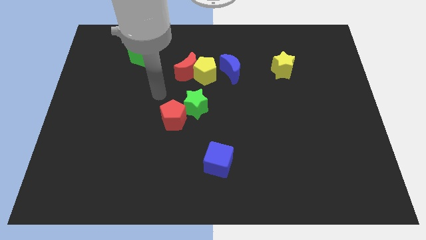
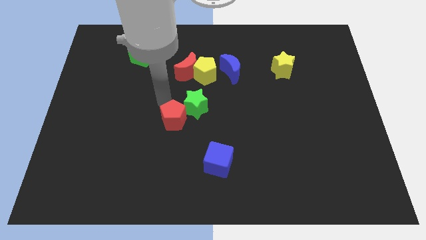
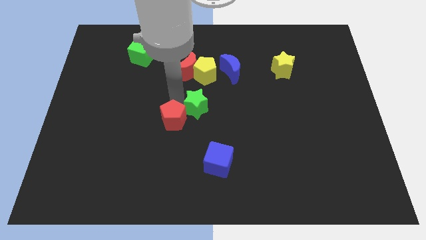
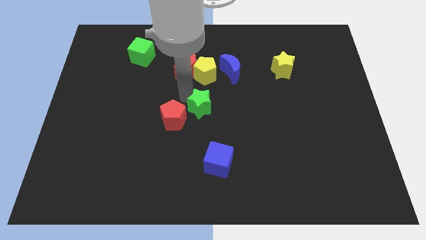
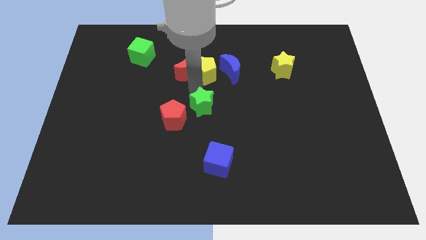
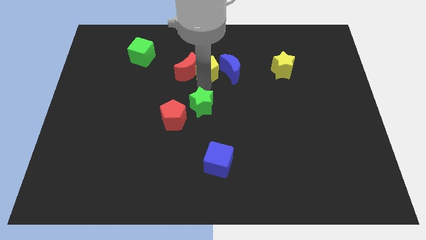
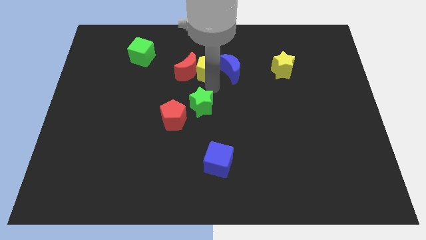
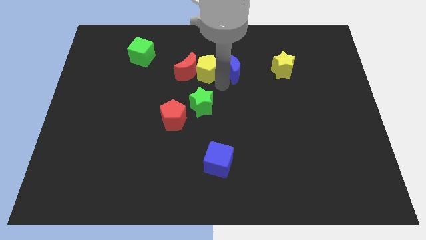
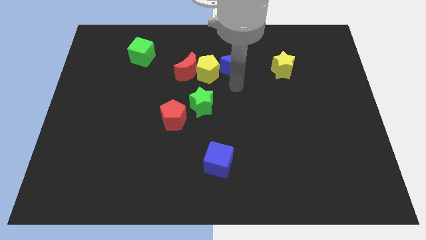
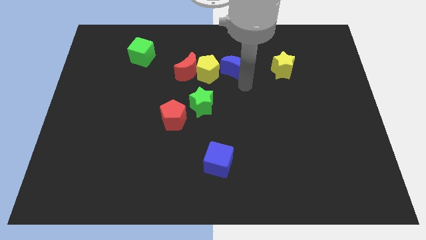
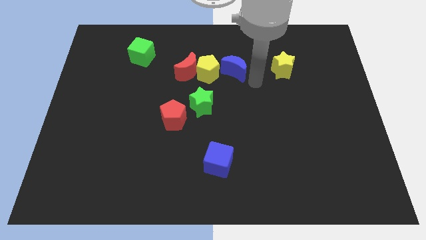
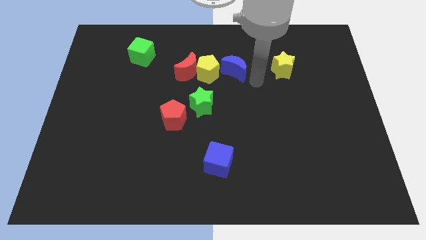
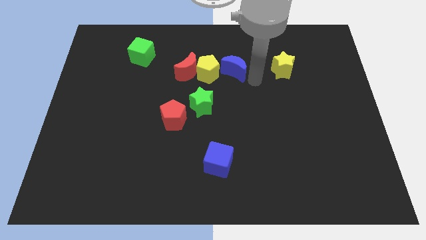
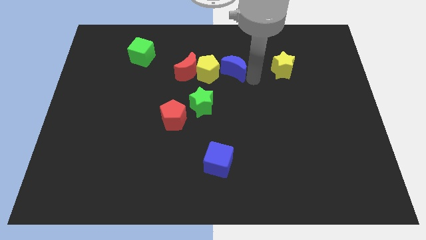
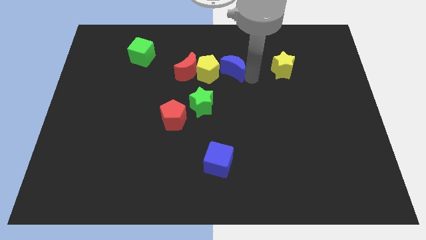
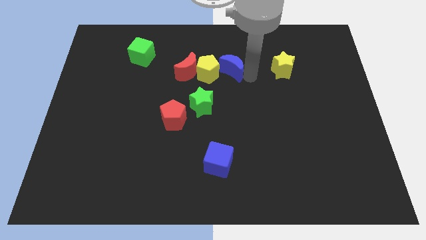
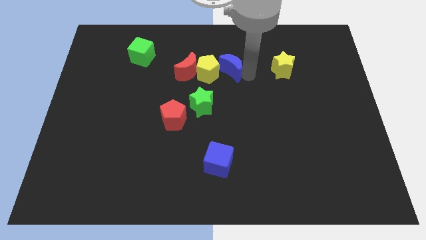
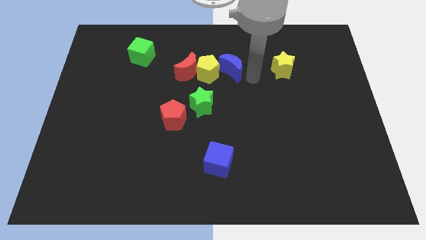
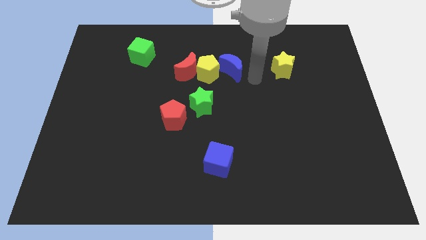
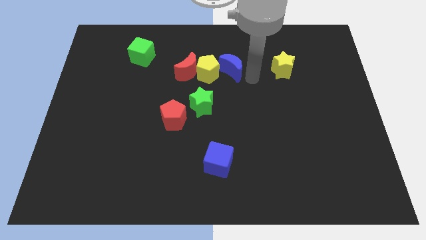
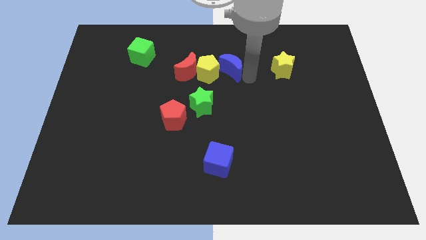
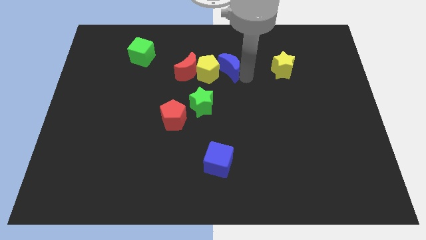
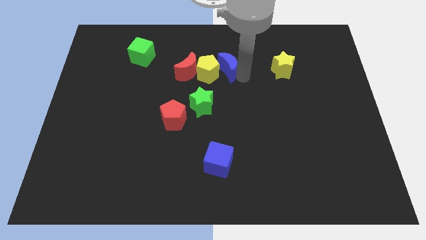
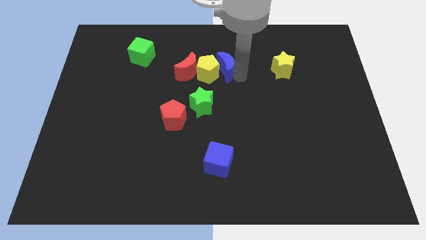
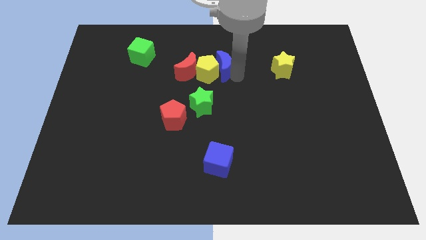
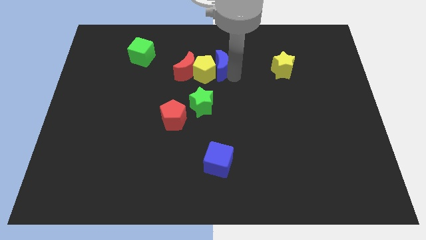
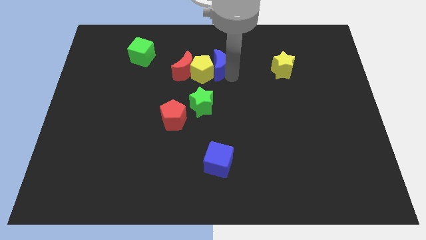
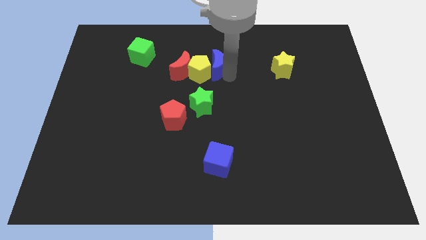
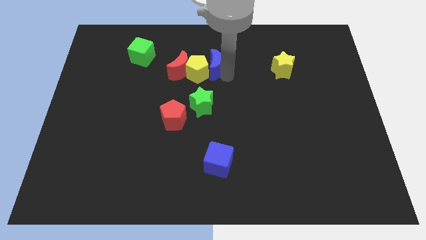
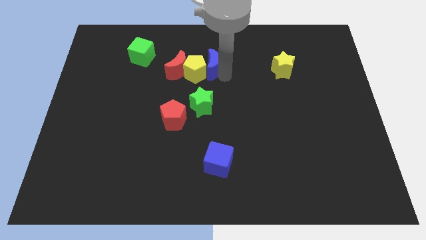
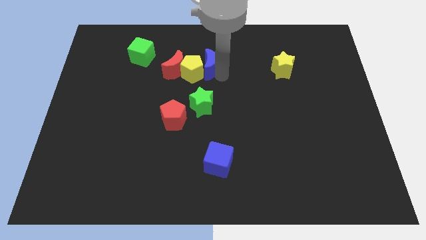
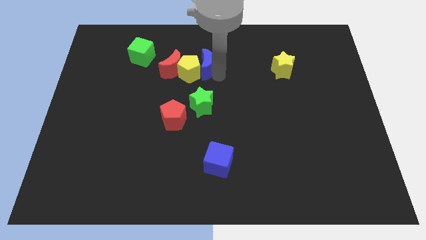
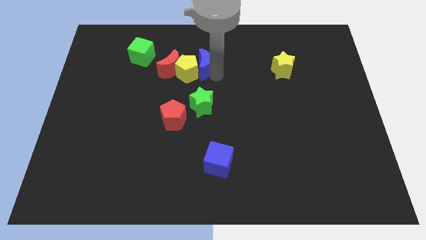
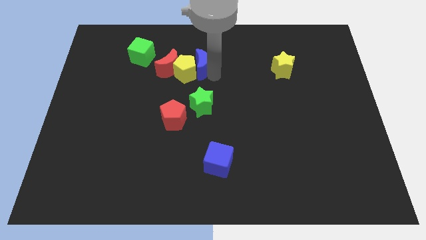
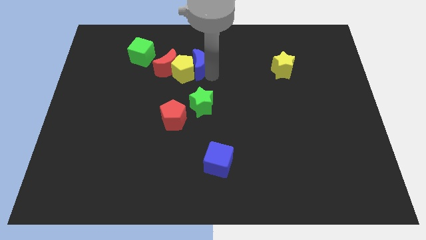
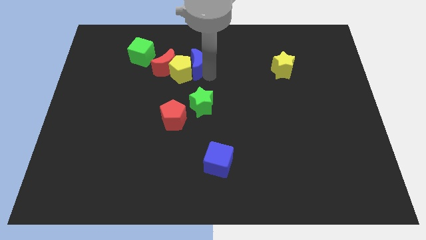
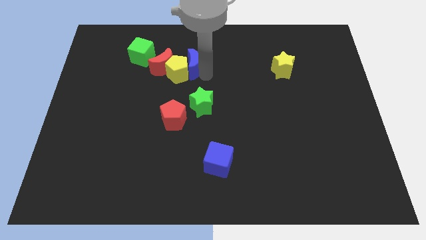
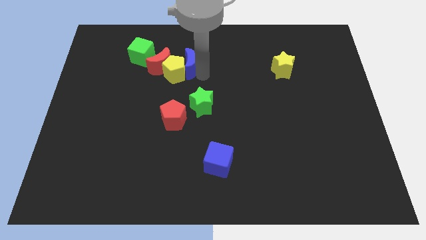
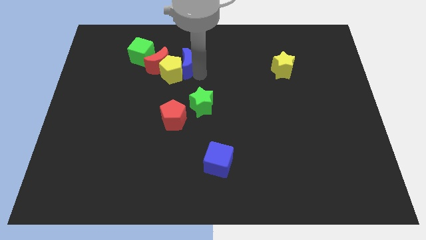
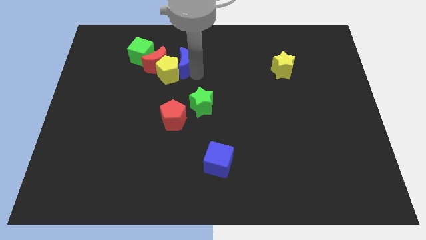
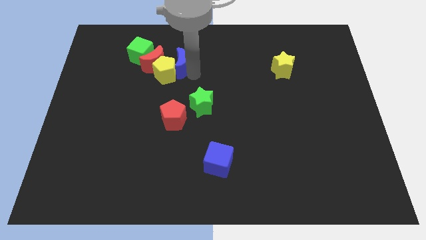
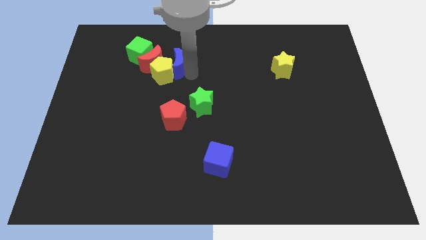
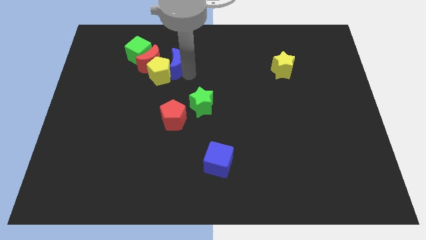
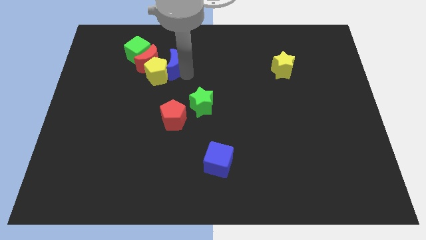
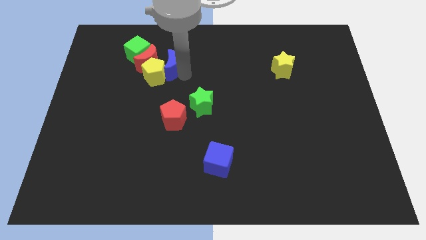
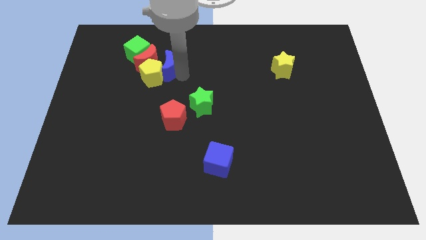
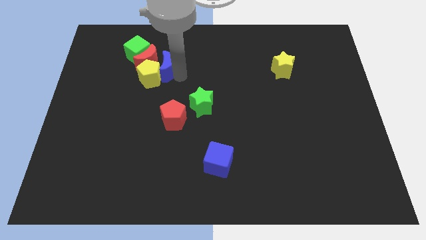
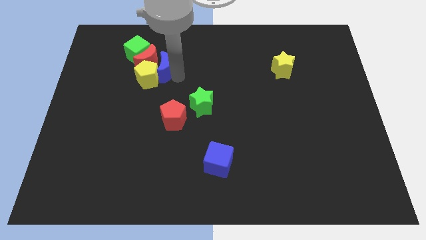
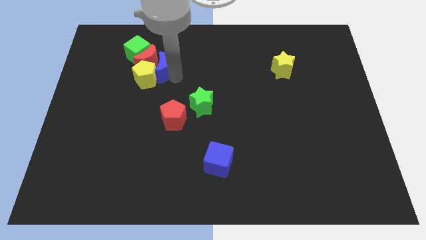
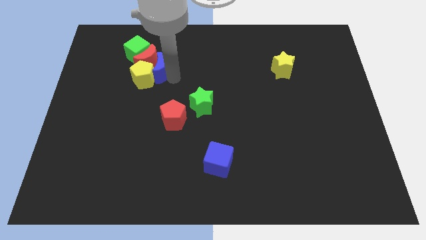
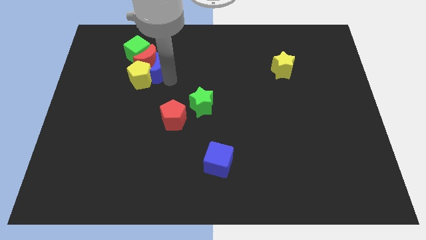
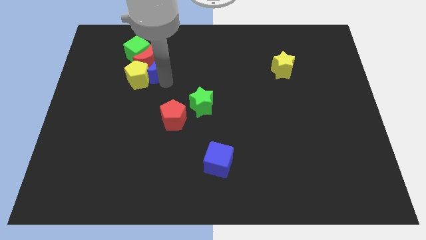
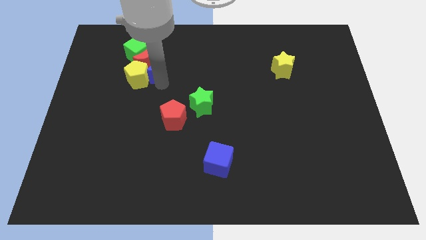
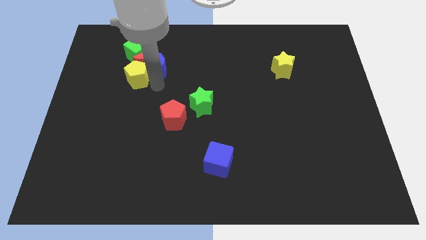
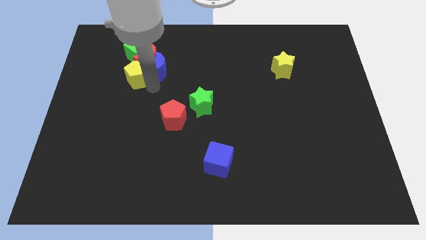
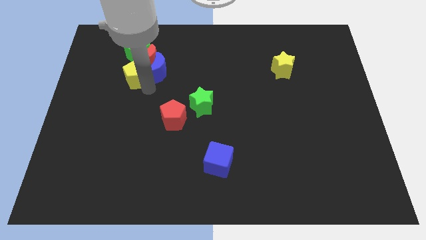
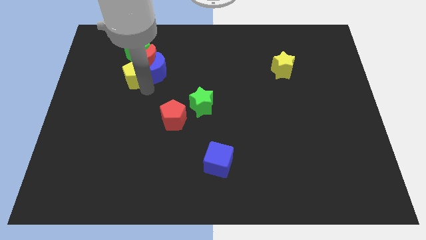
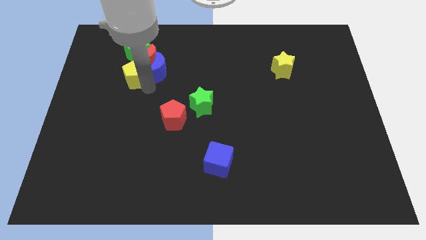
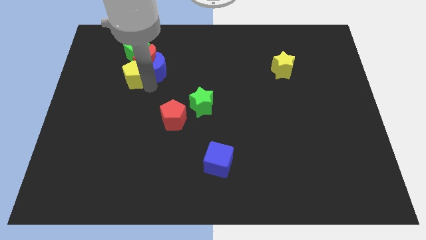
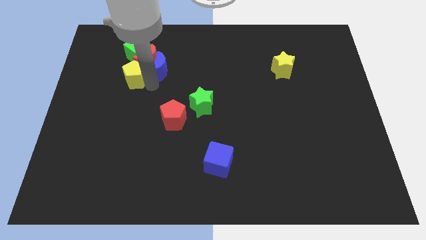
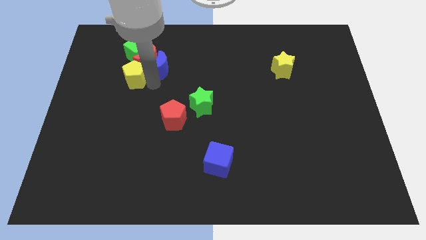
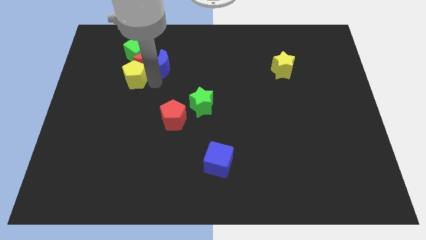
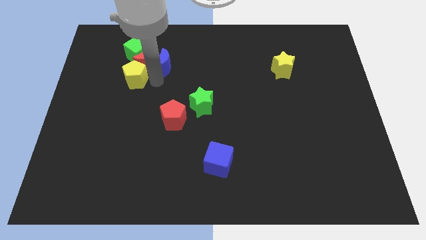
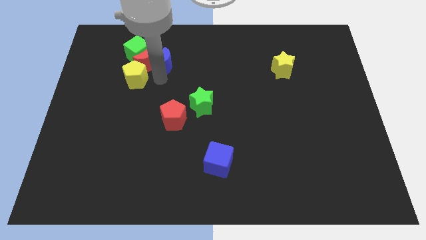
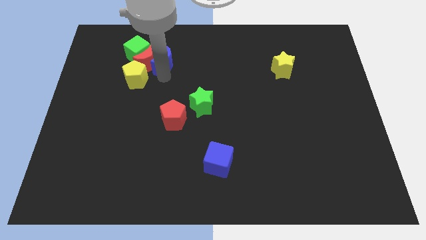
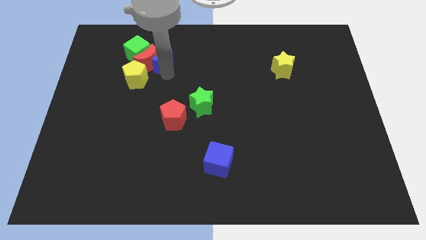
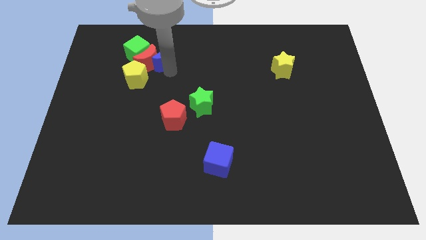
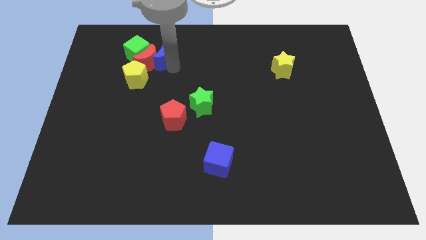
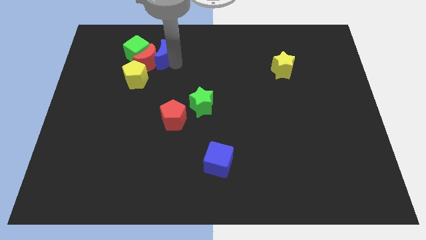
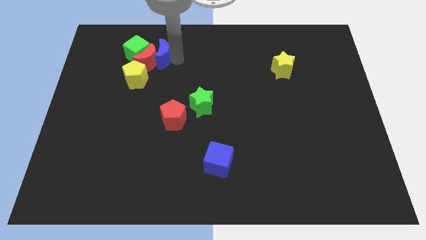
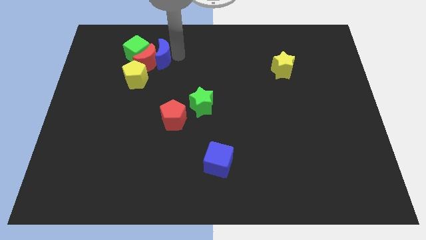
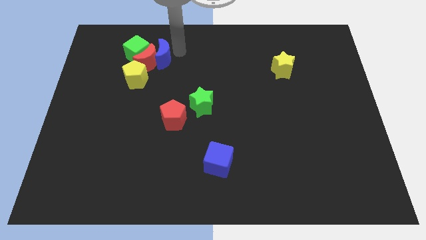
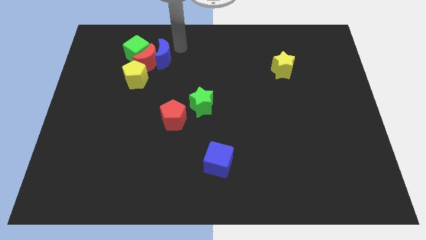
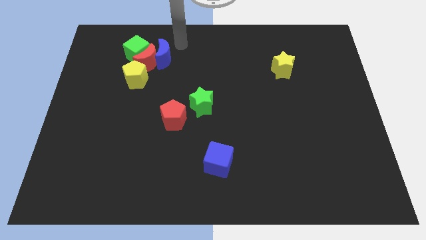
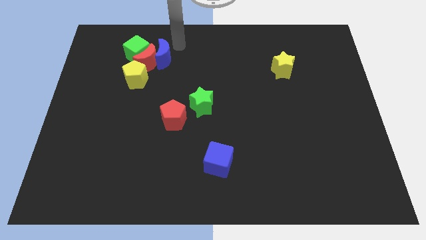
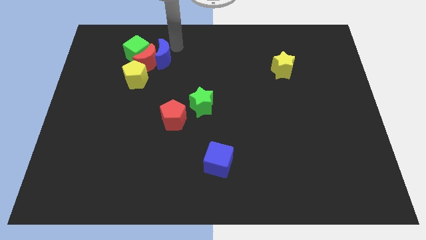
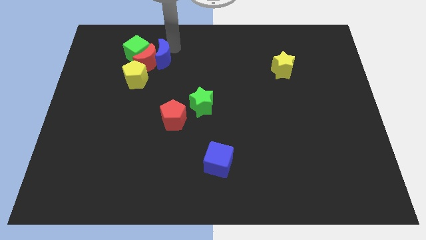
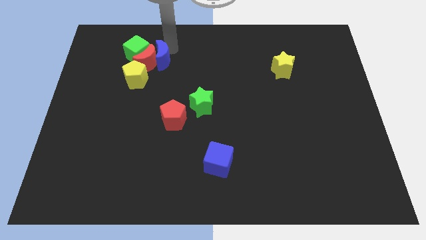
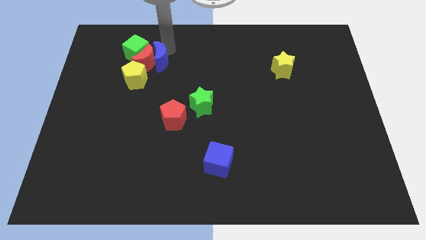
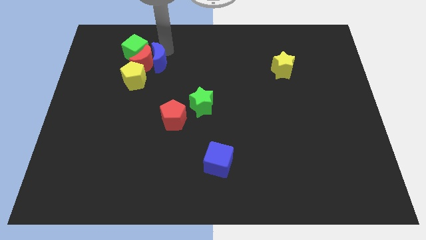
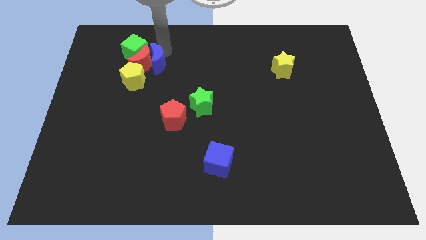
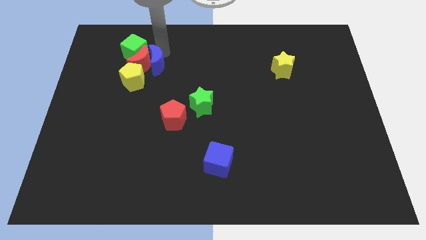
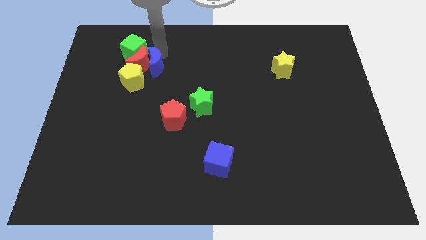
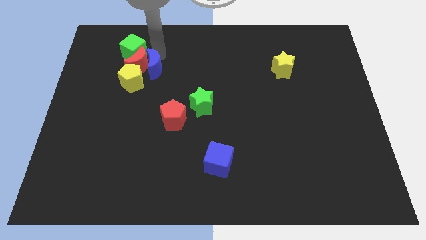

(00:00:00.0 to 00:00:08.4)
move the blue moon left
